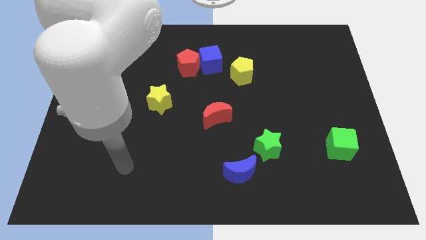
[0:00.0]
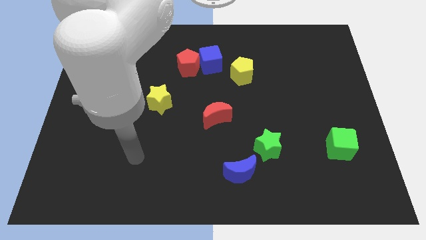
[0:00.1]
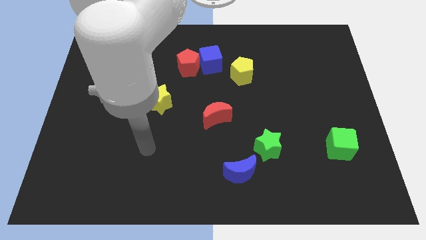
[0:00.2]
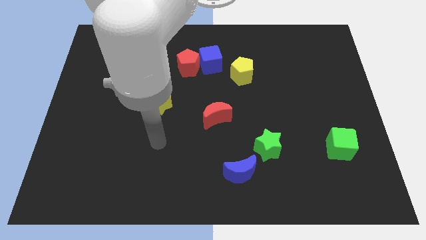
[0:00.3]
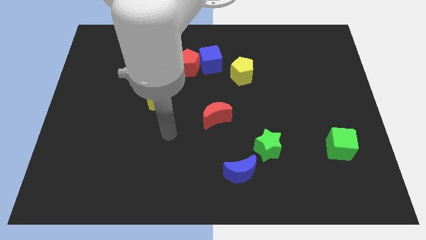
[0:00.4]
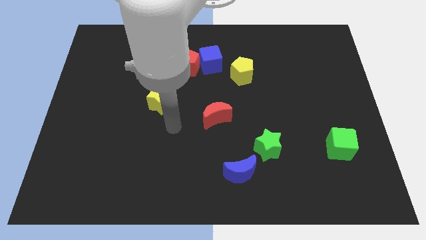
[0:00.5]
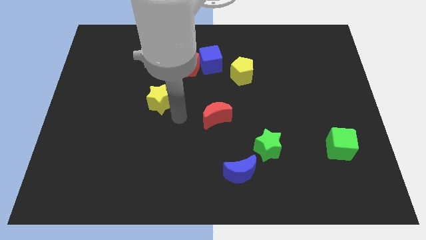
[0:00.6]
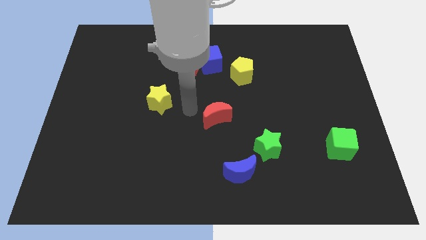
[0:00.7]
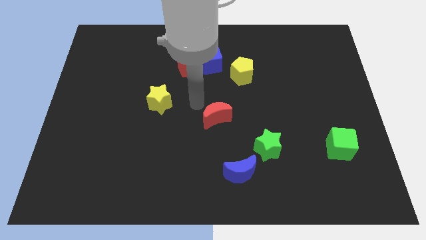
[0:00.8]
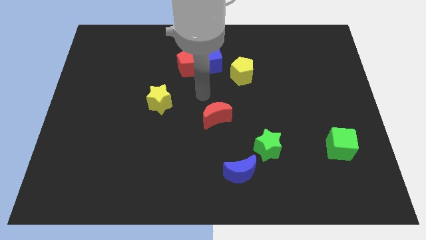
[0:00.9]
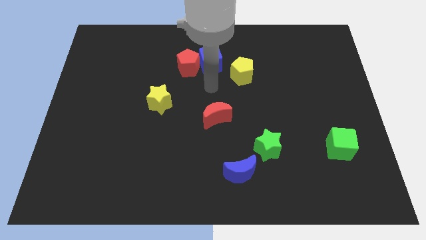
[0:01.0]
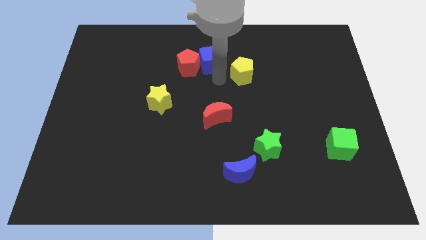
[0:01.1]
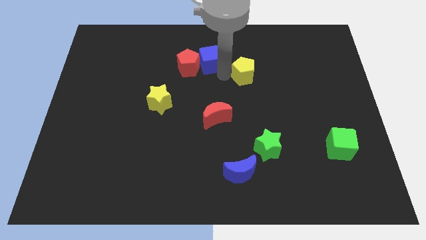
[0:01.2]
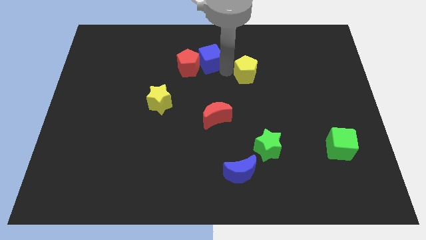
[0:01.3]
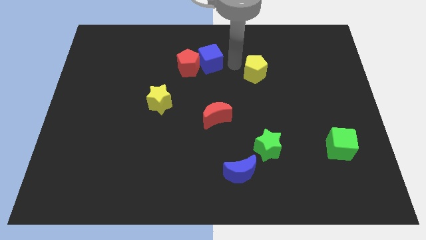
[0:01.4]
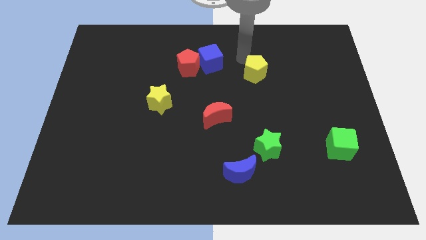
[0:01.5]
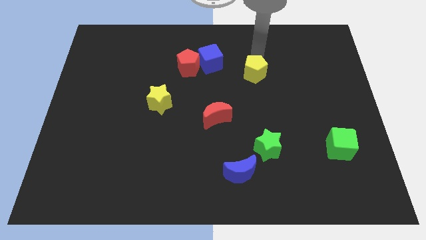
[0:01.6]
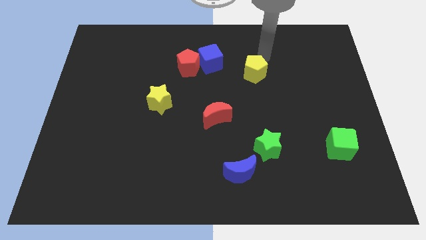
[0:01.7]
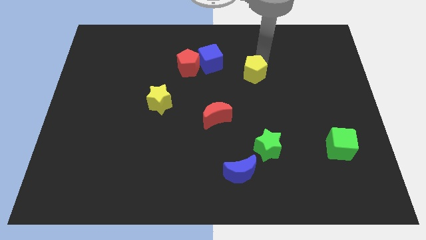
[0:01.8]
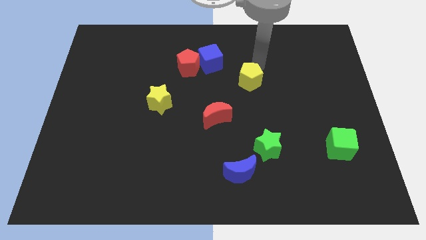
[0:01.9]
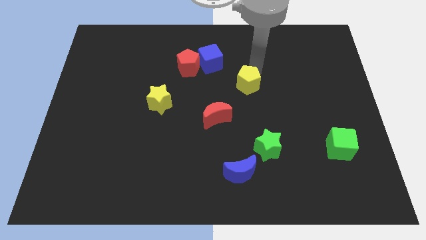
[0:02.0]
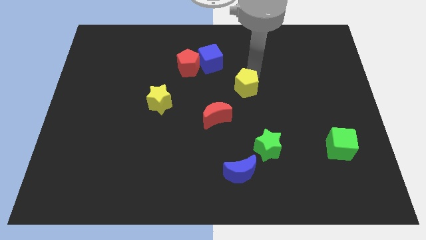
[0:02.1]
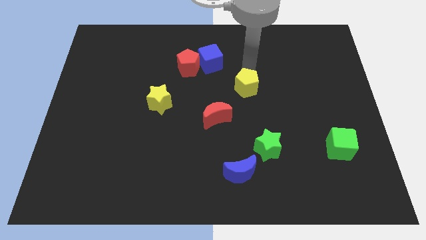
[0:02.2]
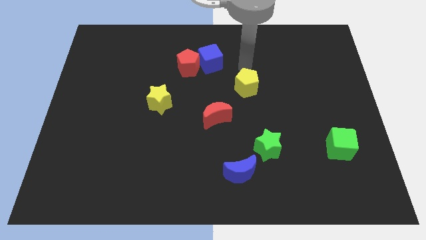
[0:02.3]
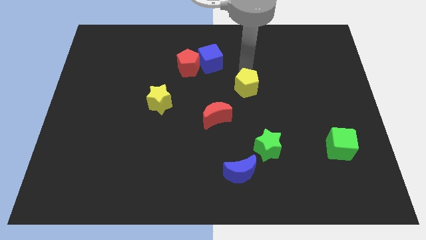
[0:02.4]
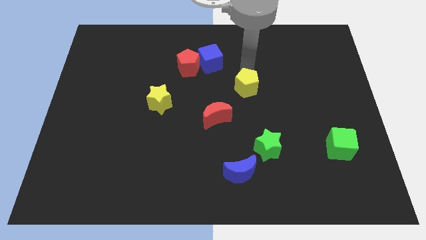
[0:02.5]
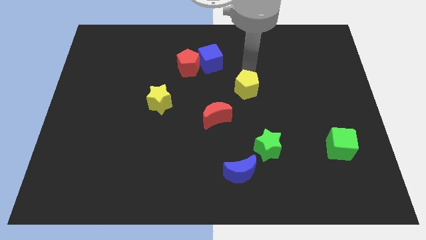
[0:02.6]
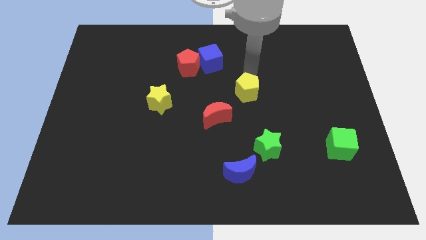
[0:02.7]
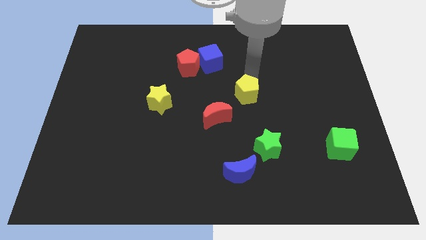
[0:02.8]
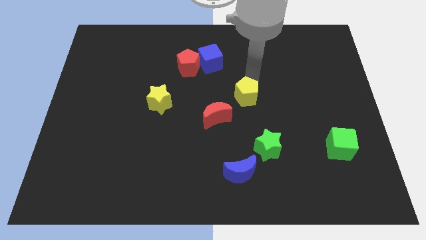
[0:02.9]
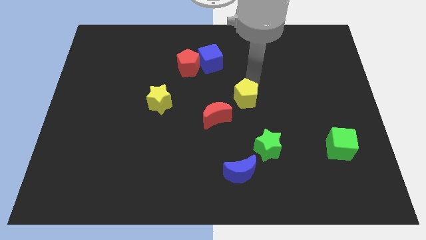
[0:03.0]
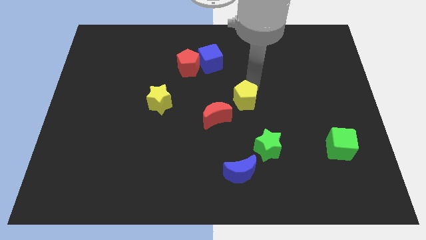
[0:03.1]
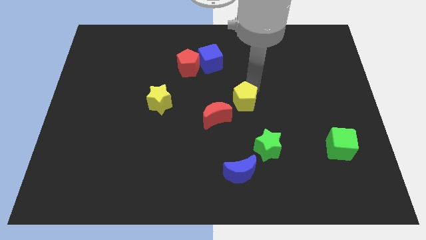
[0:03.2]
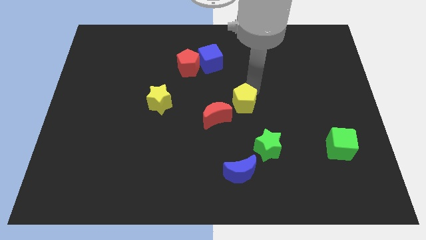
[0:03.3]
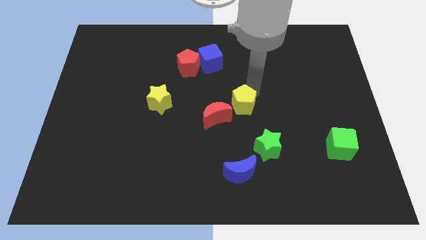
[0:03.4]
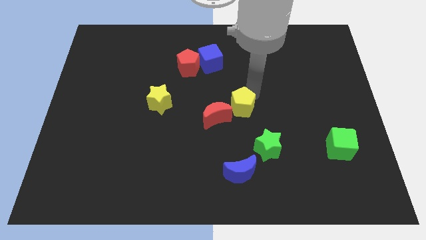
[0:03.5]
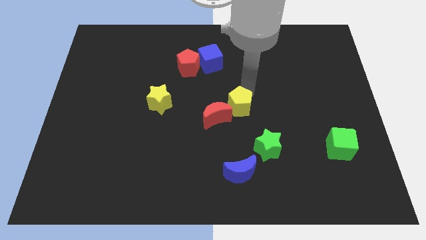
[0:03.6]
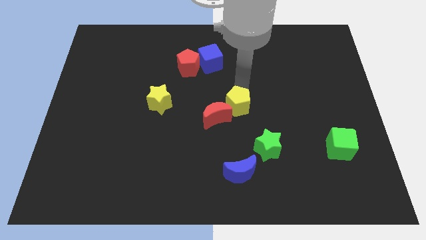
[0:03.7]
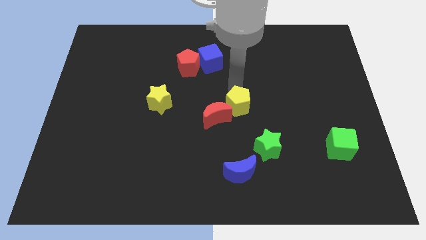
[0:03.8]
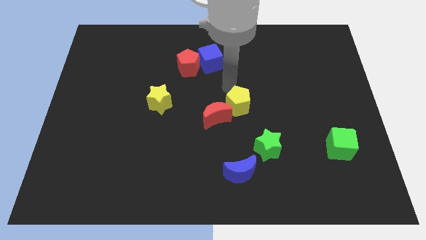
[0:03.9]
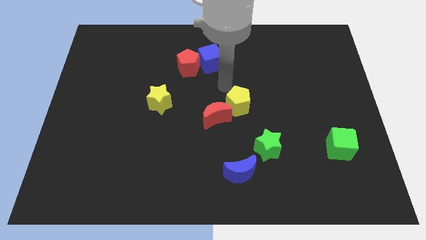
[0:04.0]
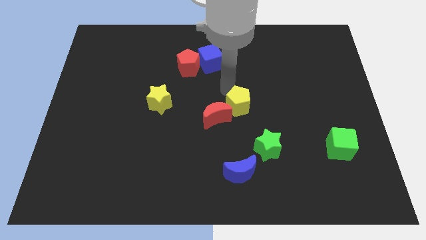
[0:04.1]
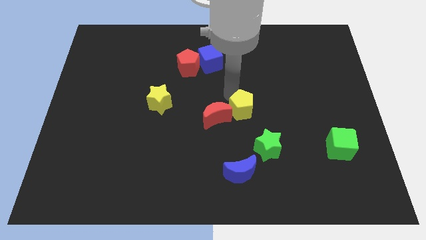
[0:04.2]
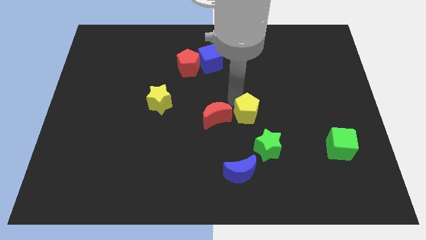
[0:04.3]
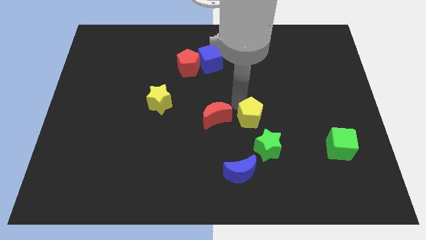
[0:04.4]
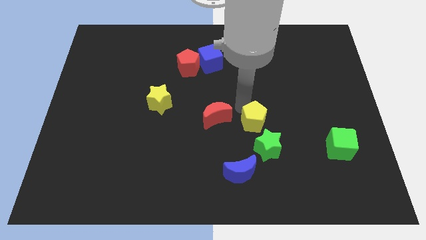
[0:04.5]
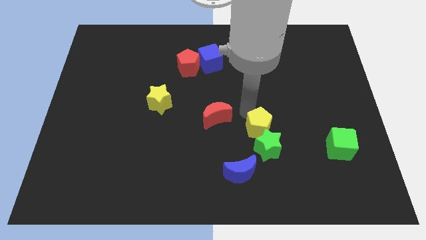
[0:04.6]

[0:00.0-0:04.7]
push the yellow pentagon close to the green star

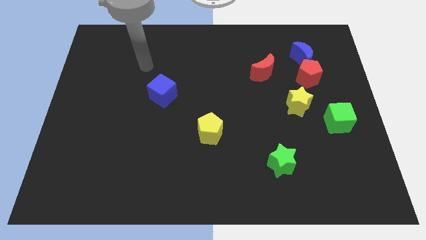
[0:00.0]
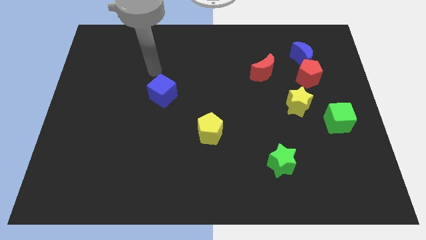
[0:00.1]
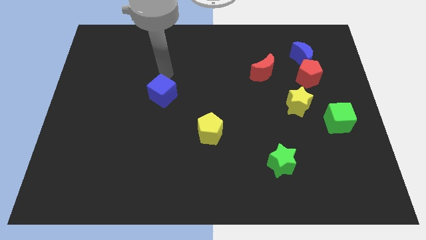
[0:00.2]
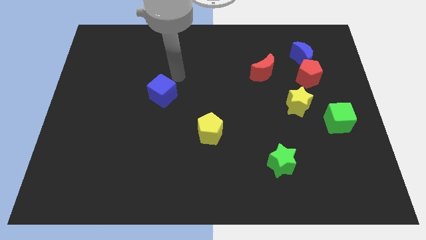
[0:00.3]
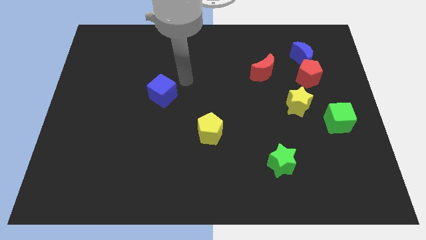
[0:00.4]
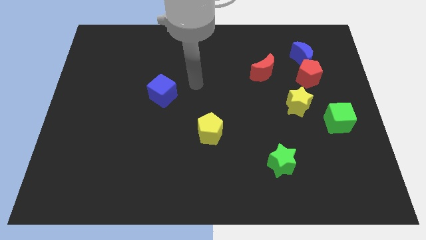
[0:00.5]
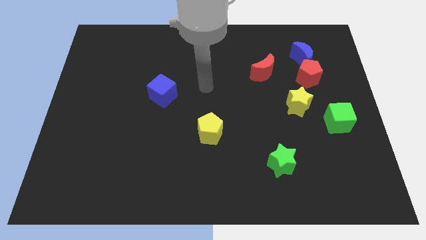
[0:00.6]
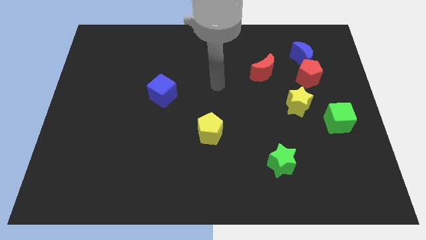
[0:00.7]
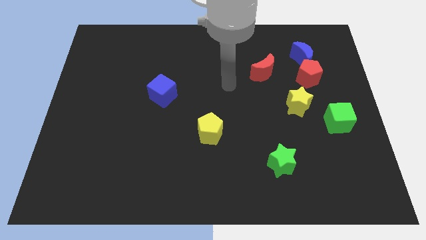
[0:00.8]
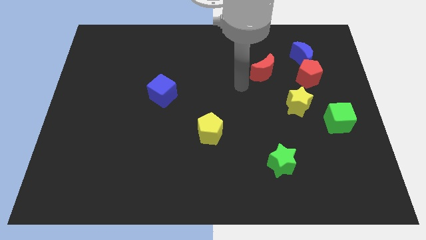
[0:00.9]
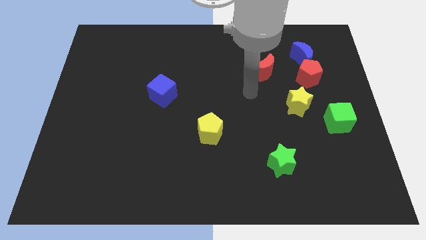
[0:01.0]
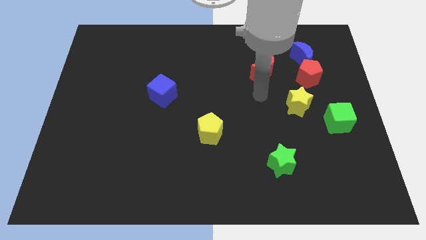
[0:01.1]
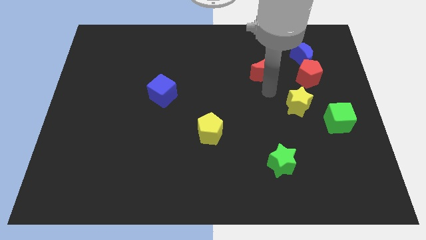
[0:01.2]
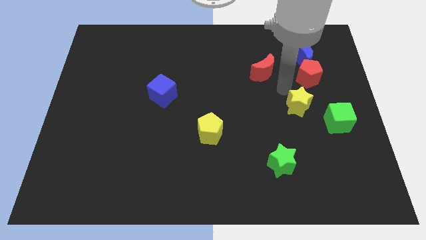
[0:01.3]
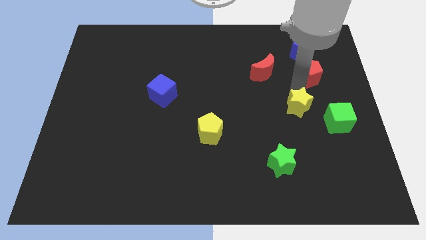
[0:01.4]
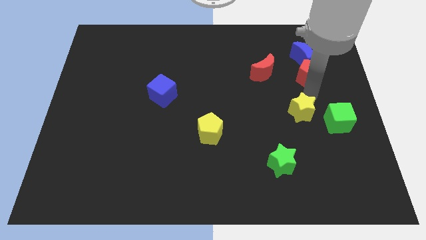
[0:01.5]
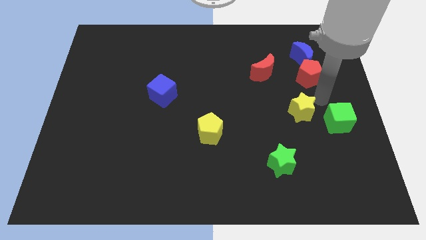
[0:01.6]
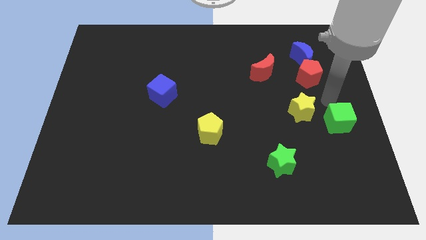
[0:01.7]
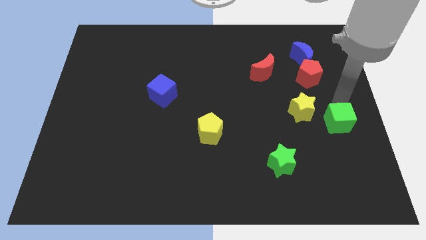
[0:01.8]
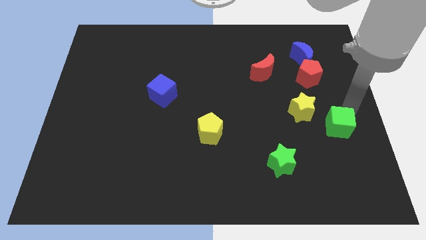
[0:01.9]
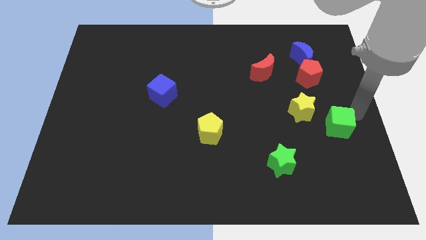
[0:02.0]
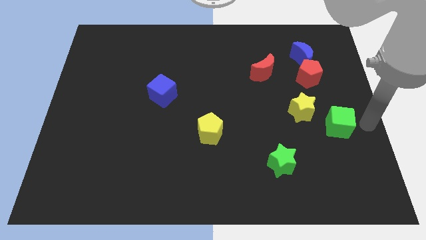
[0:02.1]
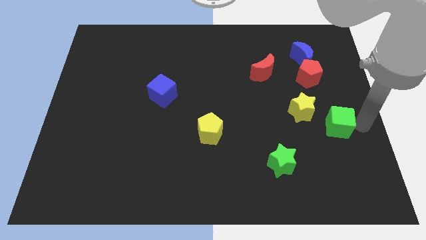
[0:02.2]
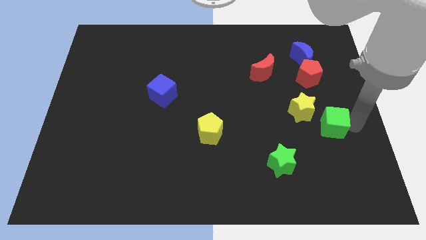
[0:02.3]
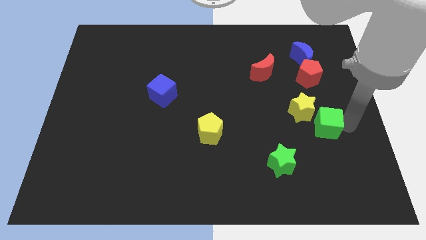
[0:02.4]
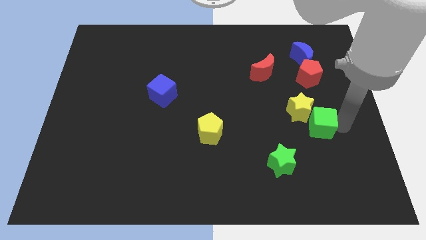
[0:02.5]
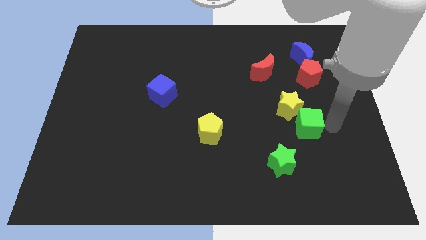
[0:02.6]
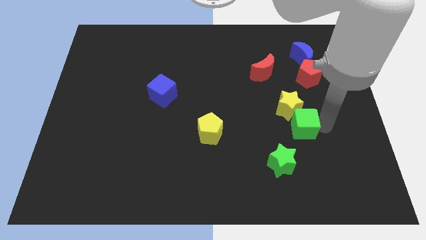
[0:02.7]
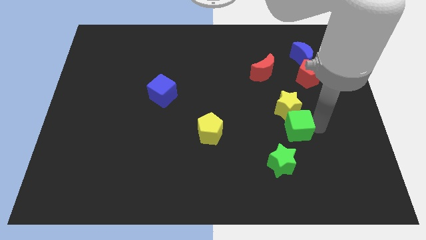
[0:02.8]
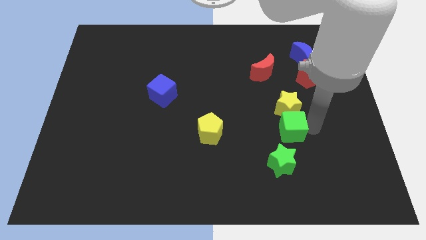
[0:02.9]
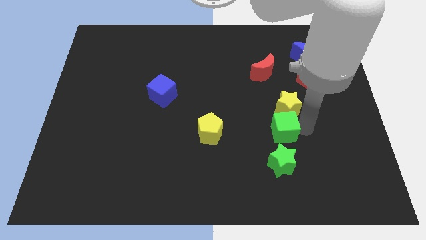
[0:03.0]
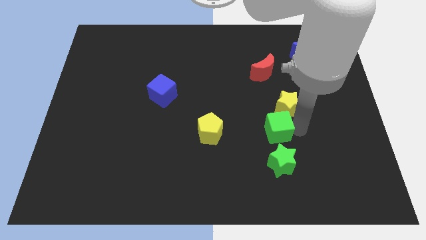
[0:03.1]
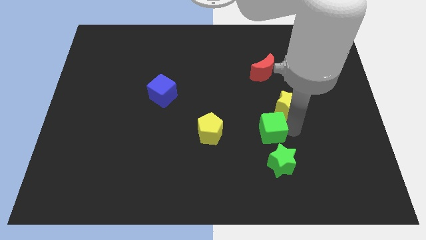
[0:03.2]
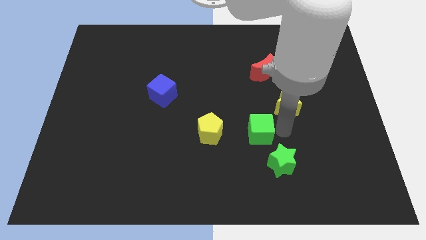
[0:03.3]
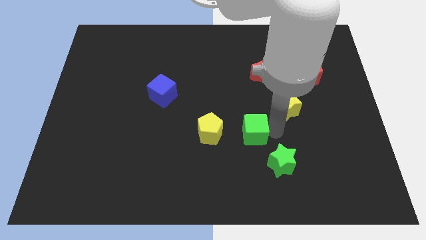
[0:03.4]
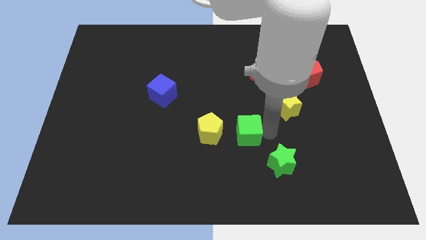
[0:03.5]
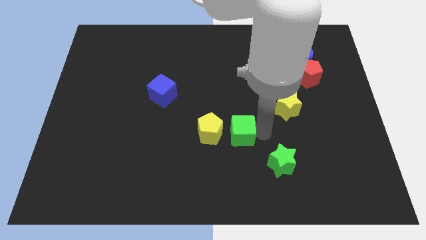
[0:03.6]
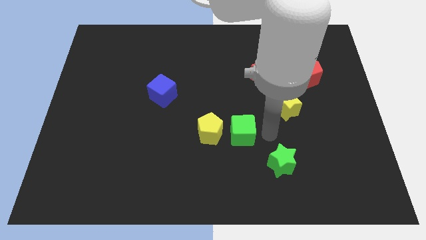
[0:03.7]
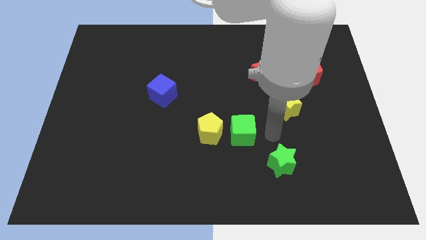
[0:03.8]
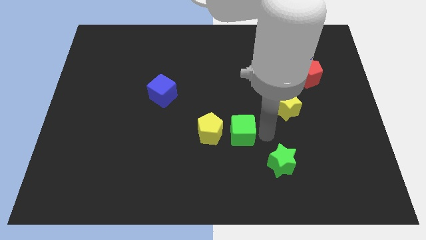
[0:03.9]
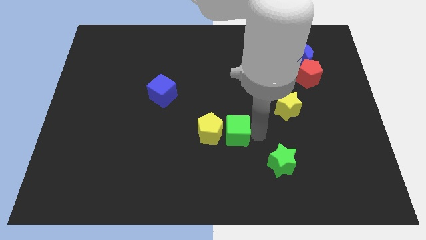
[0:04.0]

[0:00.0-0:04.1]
put the green cube to the yellow pentagon
